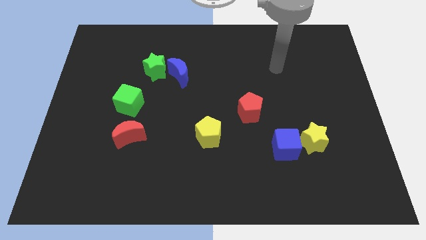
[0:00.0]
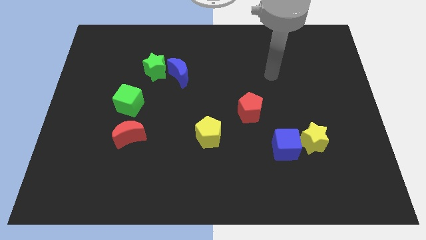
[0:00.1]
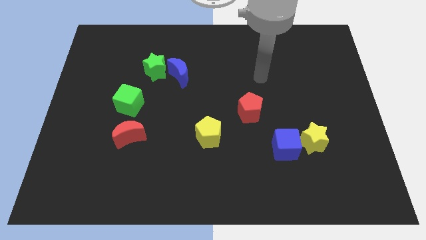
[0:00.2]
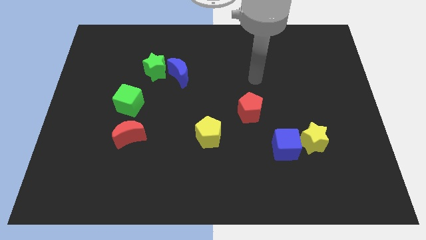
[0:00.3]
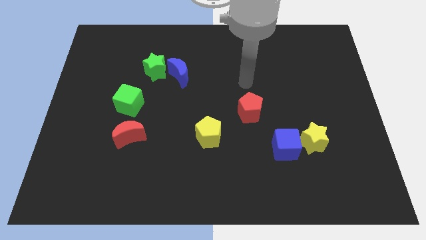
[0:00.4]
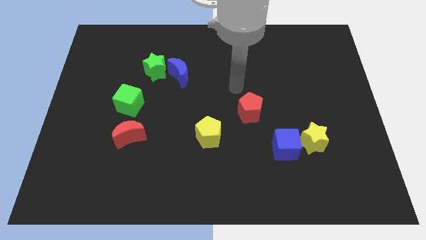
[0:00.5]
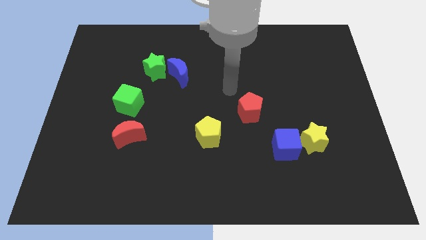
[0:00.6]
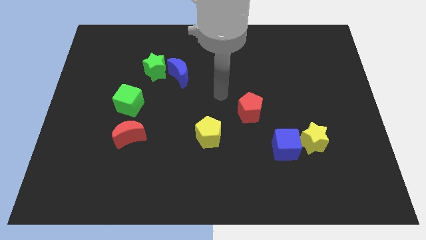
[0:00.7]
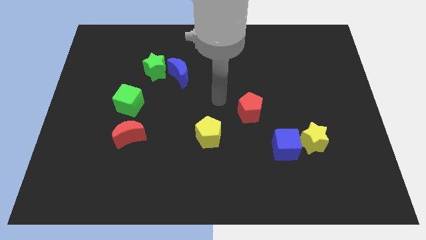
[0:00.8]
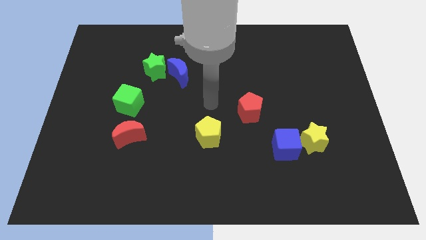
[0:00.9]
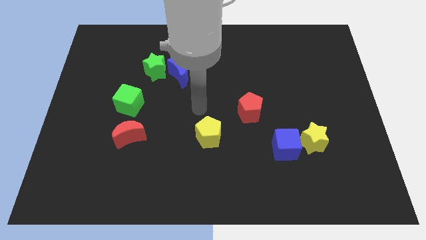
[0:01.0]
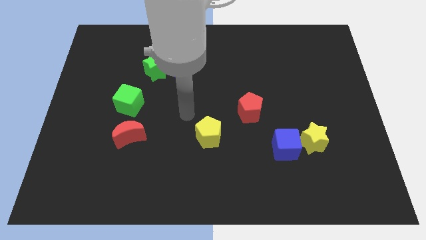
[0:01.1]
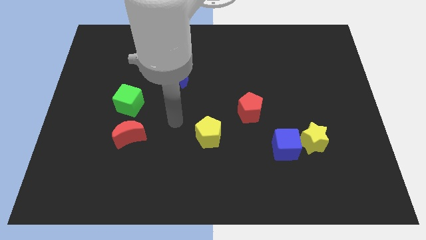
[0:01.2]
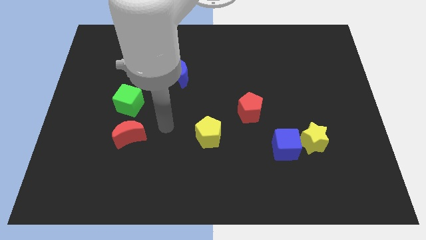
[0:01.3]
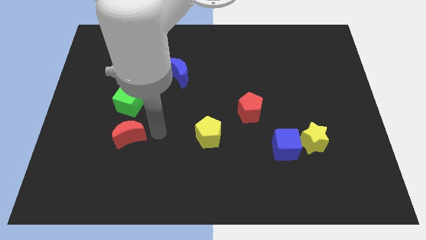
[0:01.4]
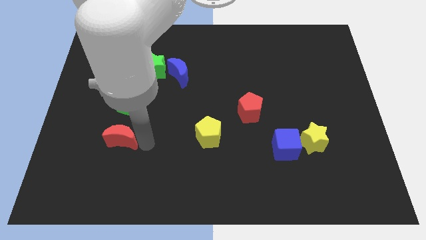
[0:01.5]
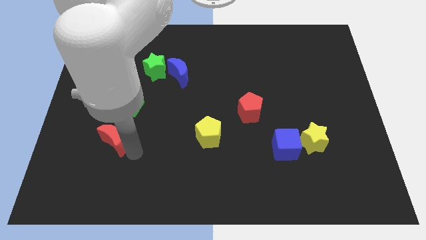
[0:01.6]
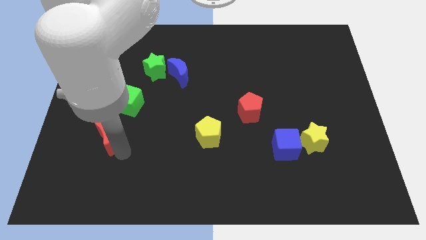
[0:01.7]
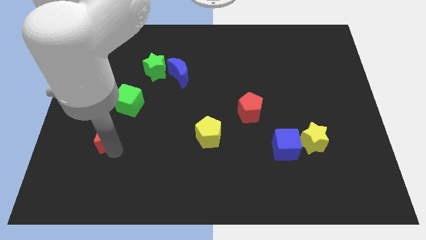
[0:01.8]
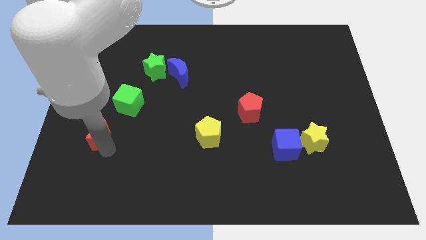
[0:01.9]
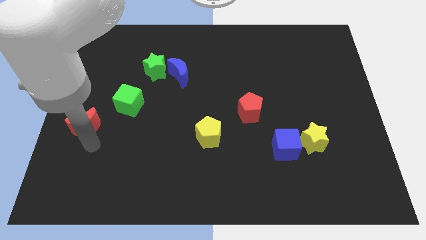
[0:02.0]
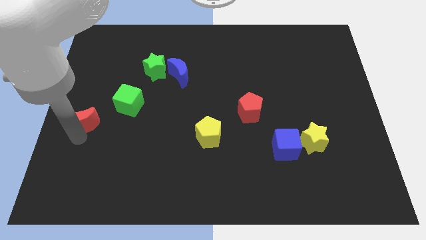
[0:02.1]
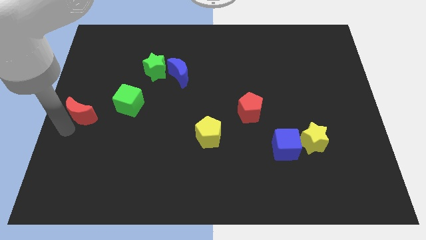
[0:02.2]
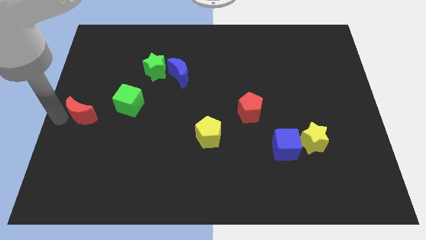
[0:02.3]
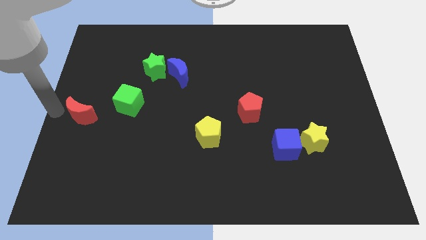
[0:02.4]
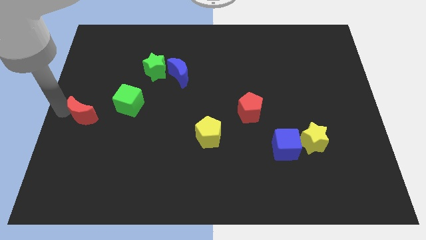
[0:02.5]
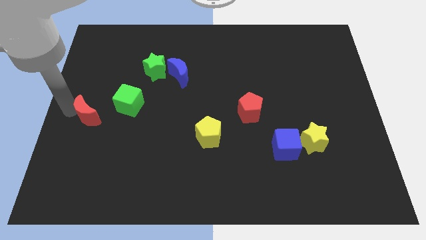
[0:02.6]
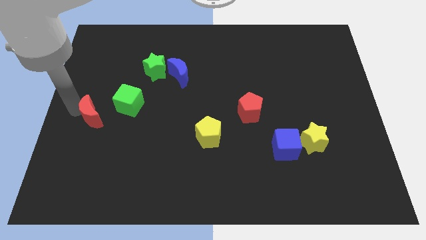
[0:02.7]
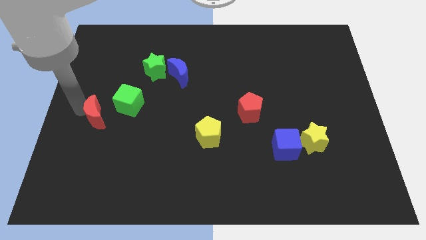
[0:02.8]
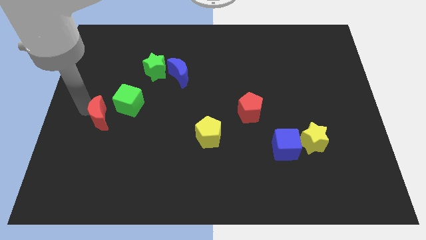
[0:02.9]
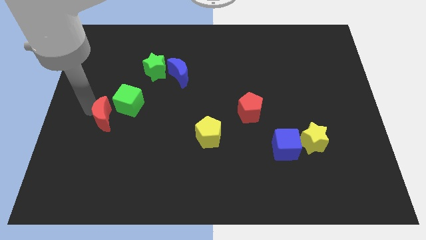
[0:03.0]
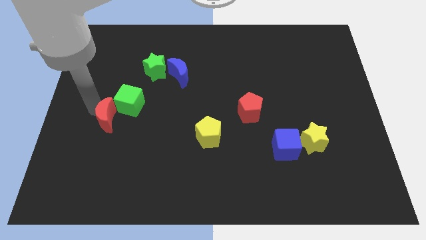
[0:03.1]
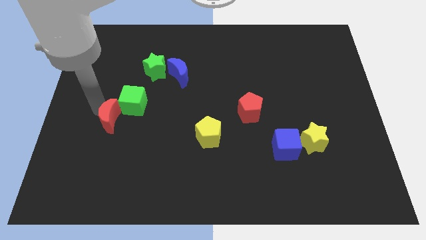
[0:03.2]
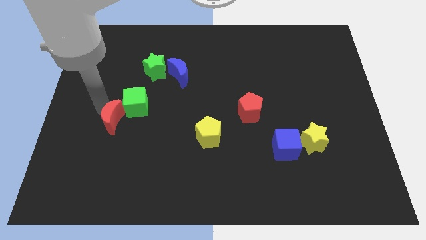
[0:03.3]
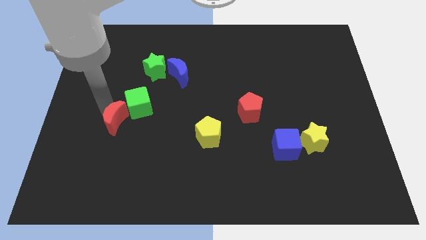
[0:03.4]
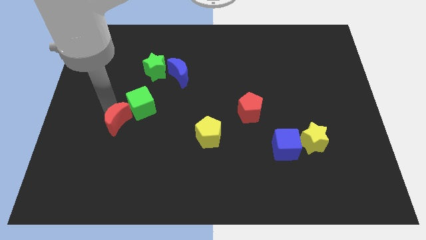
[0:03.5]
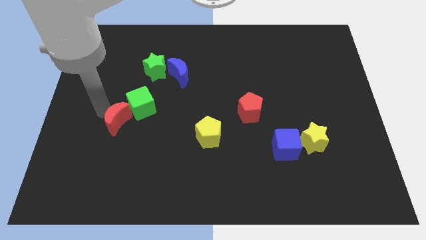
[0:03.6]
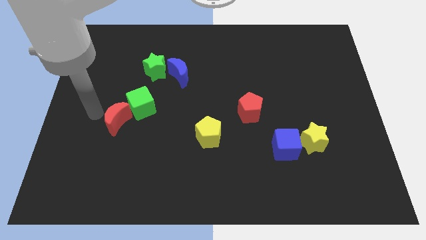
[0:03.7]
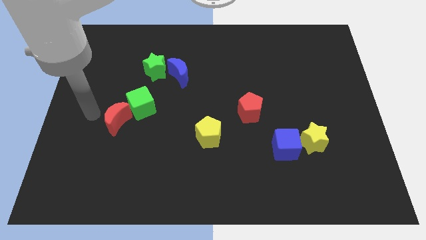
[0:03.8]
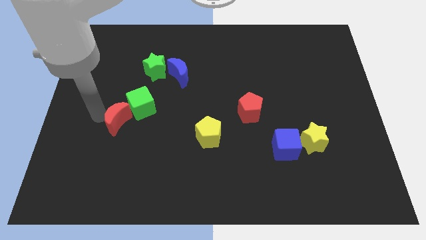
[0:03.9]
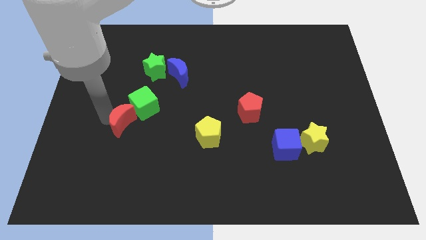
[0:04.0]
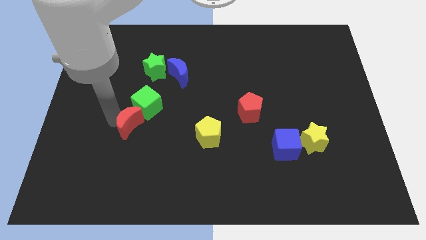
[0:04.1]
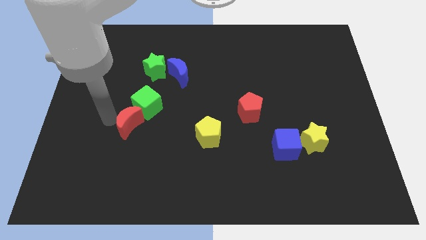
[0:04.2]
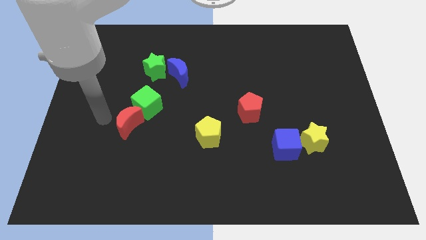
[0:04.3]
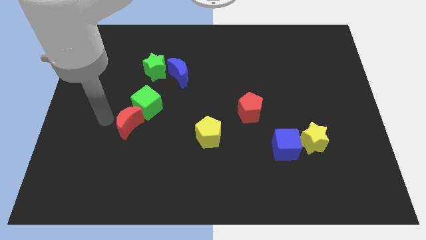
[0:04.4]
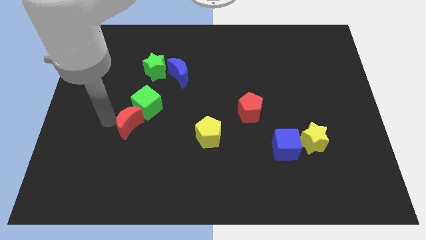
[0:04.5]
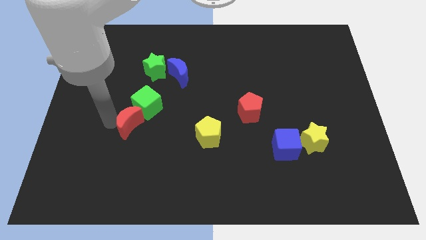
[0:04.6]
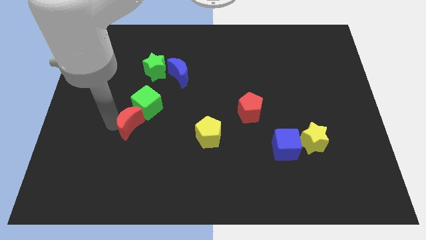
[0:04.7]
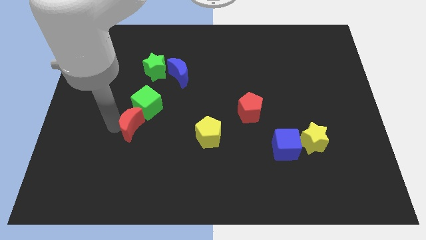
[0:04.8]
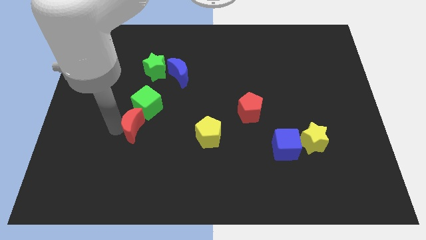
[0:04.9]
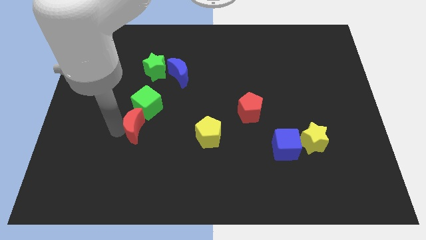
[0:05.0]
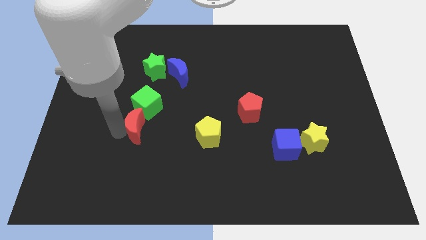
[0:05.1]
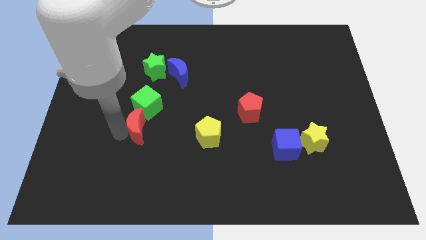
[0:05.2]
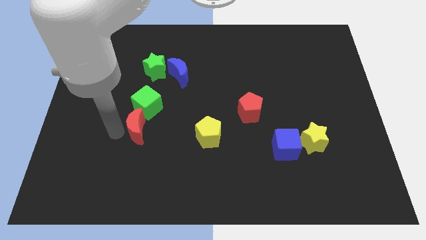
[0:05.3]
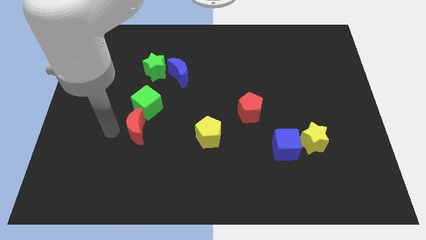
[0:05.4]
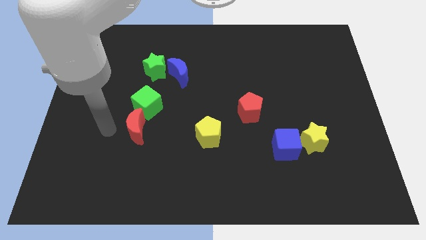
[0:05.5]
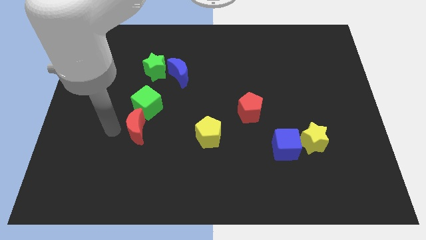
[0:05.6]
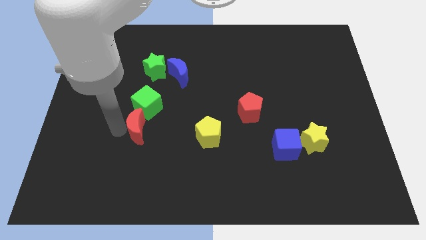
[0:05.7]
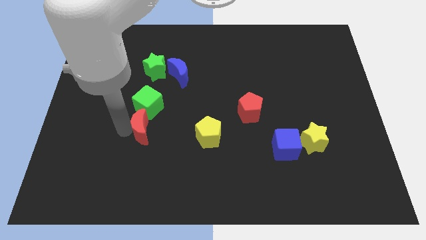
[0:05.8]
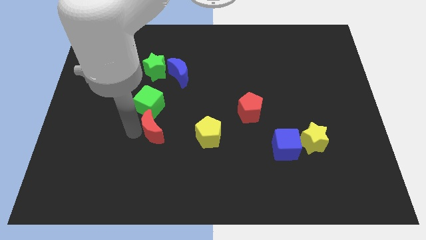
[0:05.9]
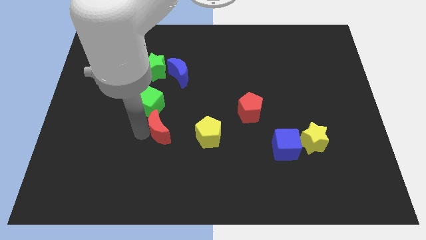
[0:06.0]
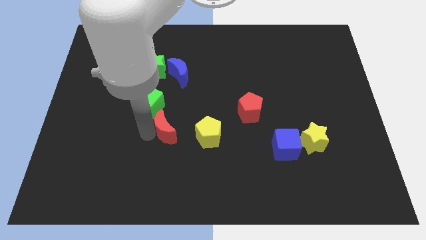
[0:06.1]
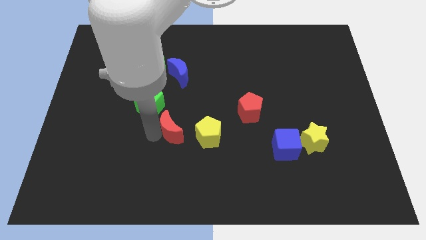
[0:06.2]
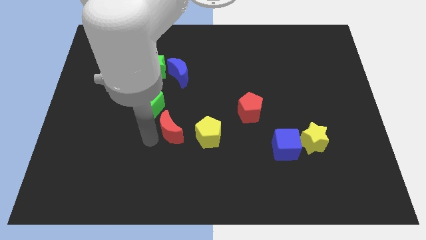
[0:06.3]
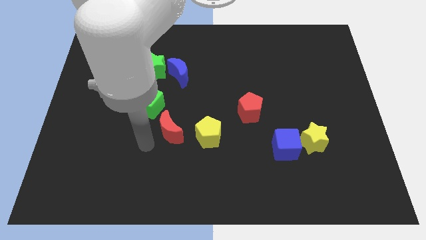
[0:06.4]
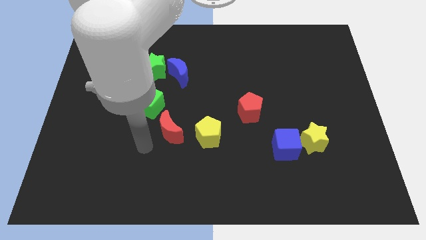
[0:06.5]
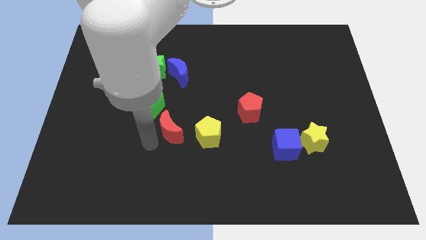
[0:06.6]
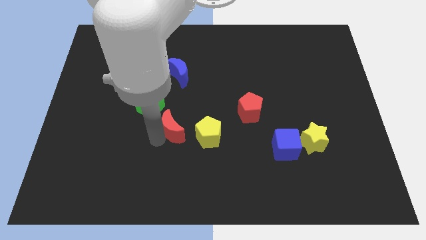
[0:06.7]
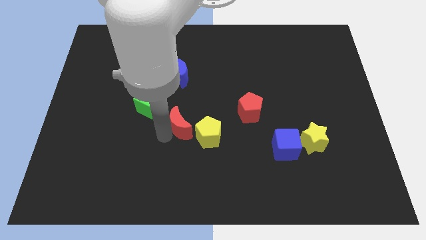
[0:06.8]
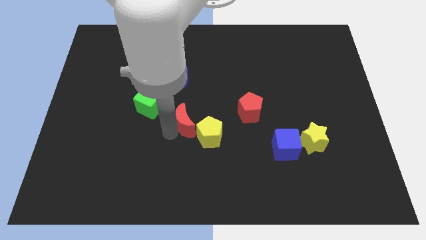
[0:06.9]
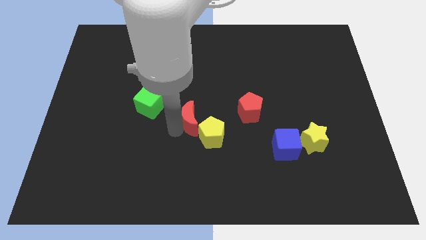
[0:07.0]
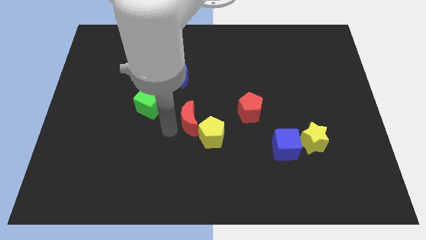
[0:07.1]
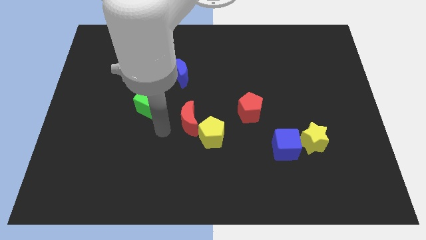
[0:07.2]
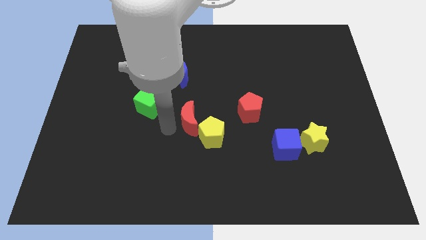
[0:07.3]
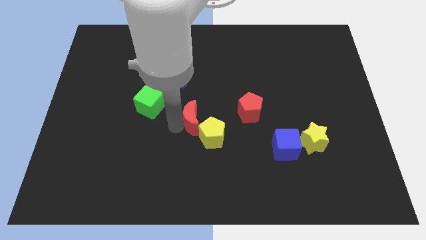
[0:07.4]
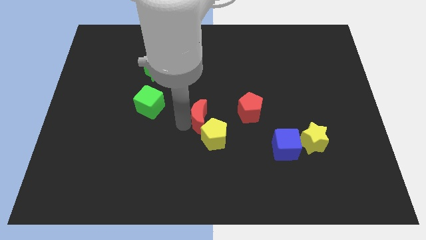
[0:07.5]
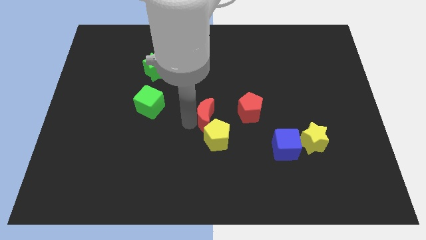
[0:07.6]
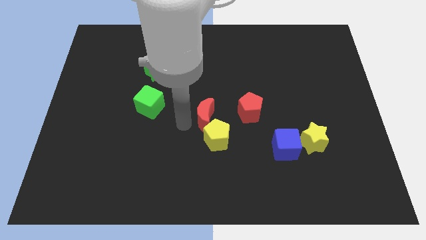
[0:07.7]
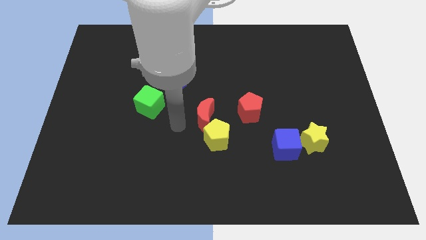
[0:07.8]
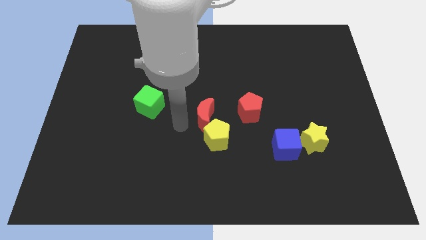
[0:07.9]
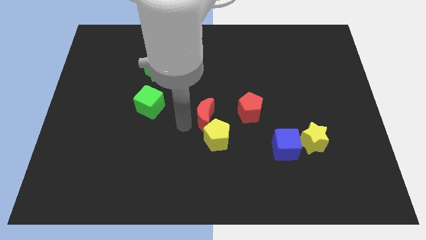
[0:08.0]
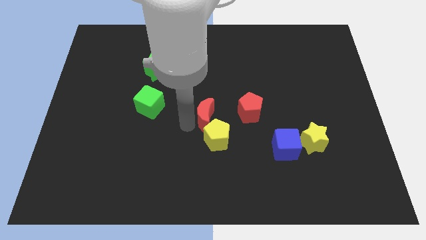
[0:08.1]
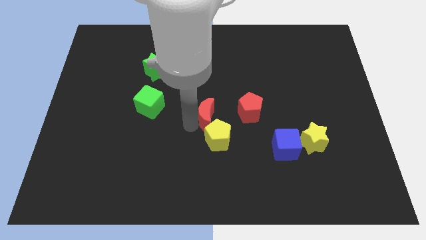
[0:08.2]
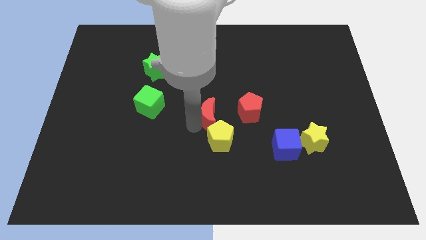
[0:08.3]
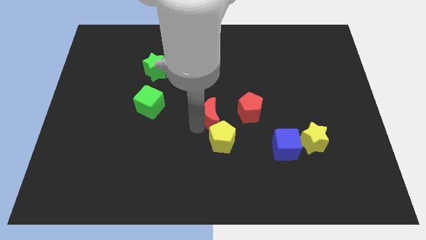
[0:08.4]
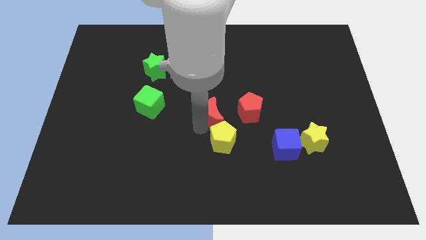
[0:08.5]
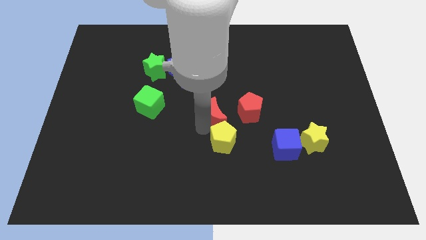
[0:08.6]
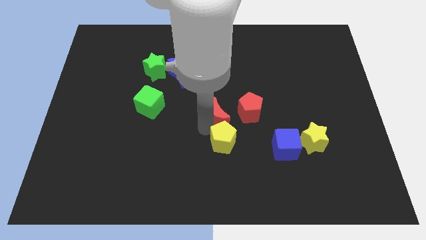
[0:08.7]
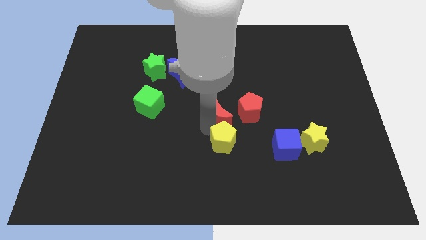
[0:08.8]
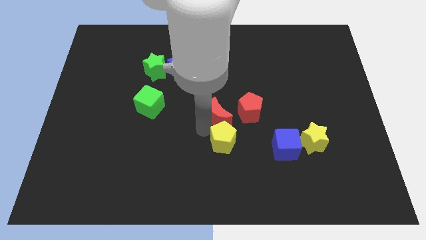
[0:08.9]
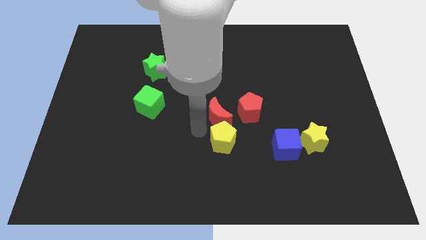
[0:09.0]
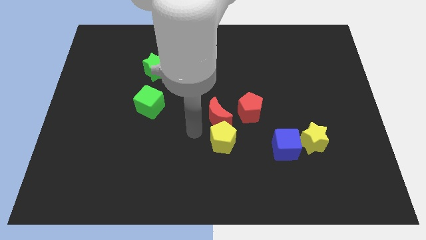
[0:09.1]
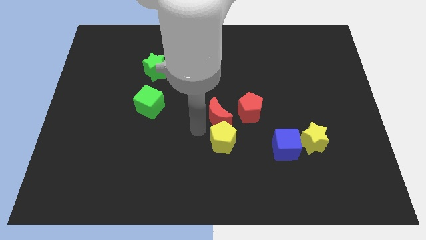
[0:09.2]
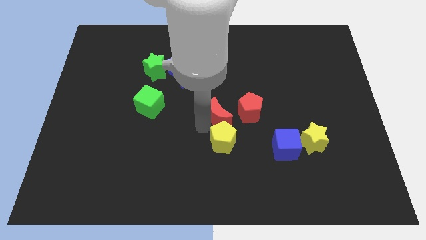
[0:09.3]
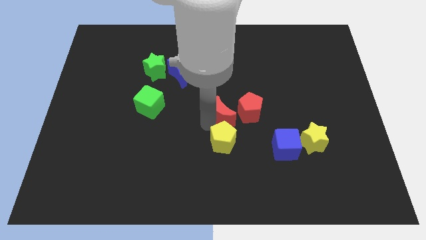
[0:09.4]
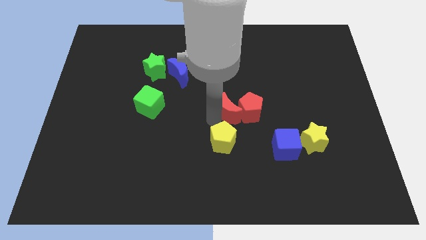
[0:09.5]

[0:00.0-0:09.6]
slide the red moon next to the red pentagon
